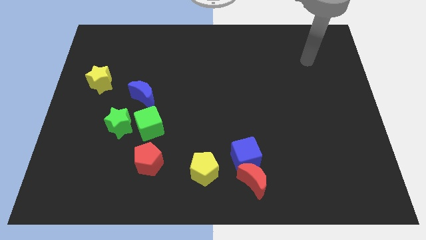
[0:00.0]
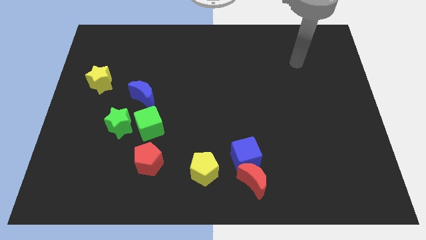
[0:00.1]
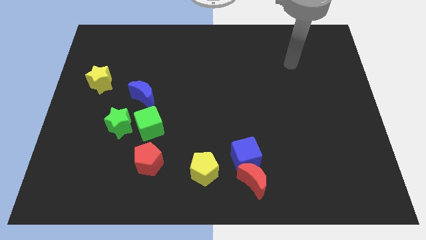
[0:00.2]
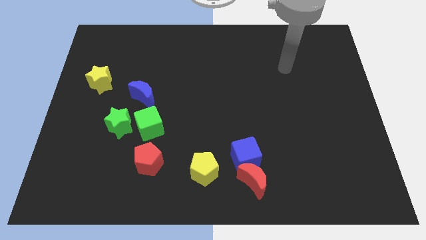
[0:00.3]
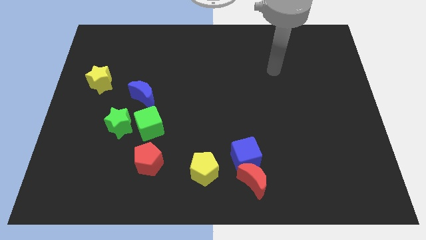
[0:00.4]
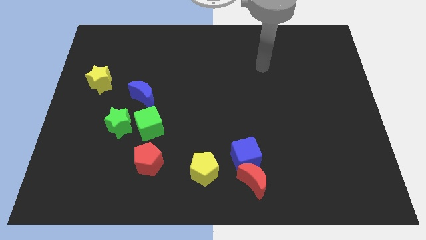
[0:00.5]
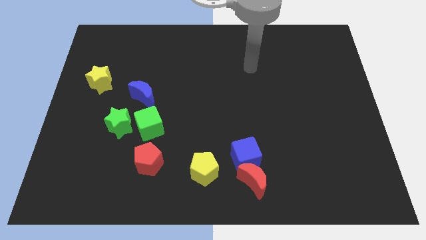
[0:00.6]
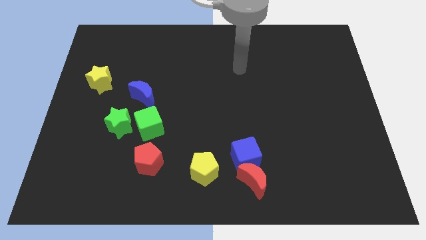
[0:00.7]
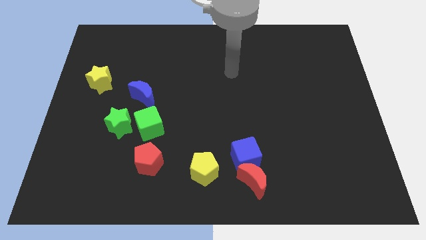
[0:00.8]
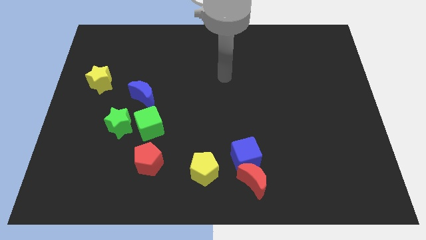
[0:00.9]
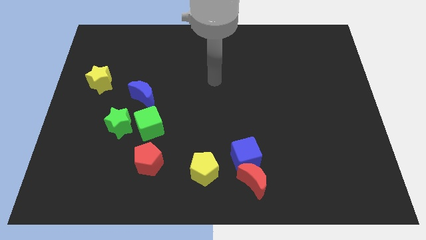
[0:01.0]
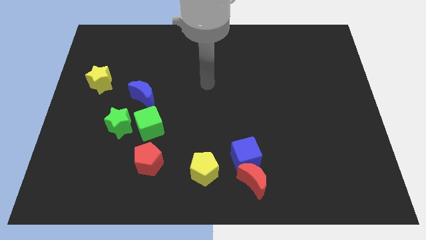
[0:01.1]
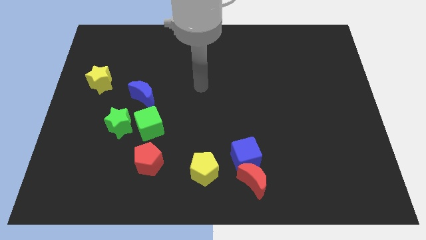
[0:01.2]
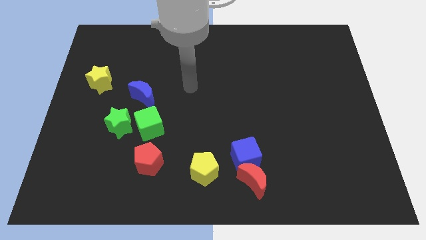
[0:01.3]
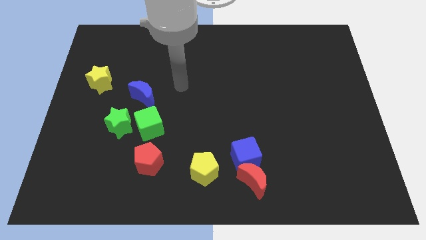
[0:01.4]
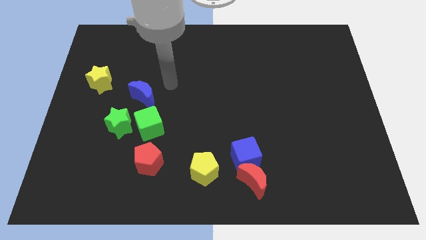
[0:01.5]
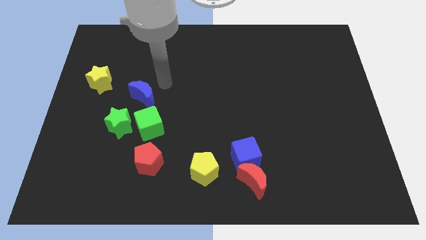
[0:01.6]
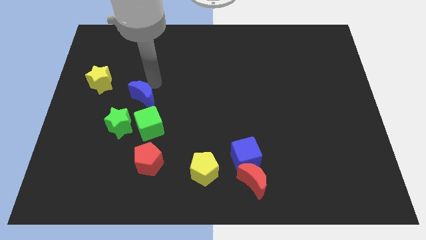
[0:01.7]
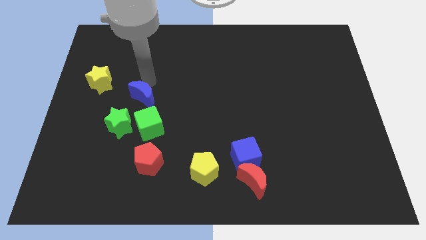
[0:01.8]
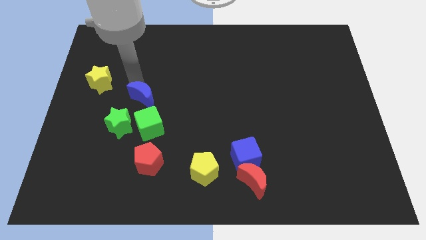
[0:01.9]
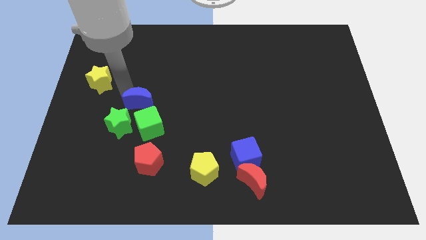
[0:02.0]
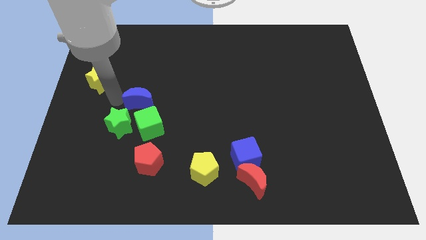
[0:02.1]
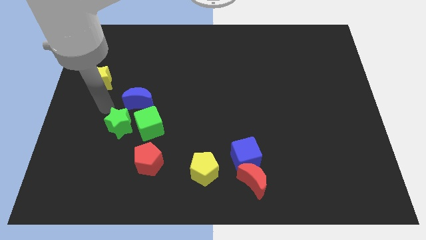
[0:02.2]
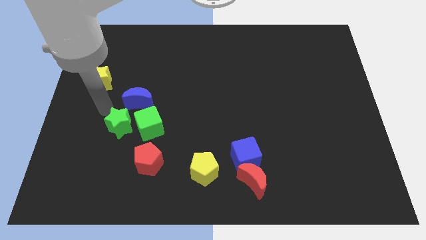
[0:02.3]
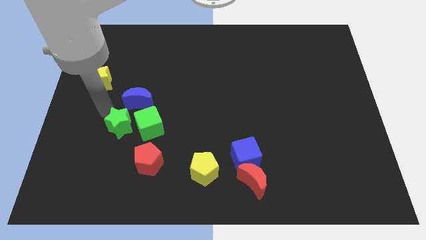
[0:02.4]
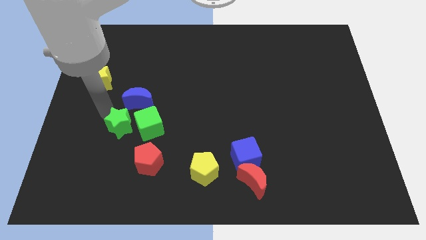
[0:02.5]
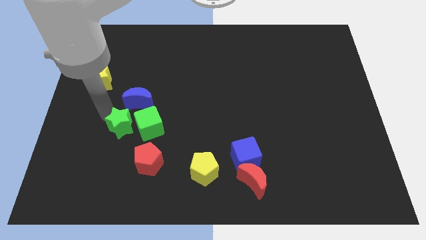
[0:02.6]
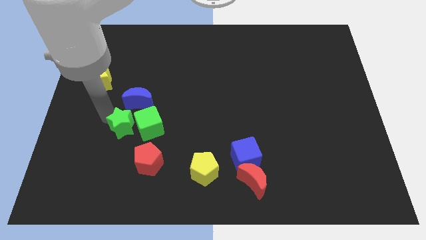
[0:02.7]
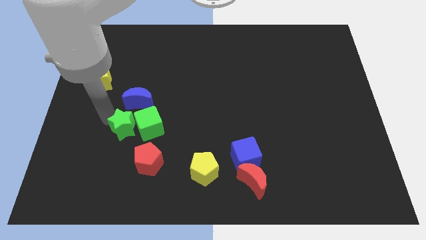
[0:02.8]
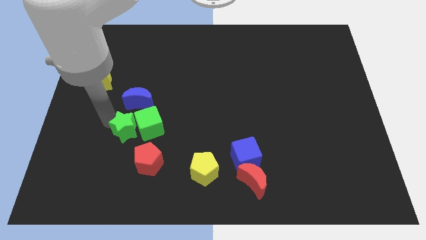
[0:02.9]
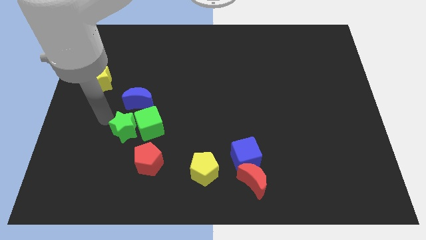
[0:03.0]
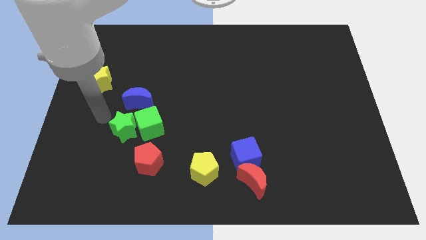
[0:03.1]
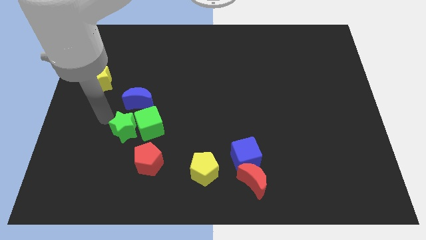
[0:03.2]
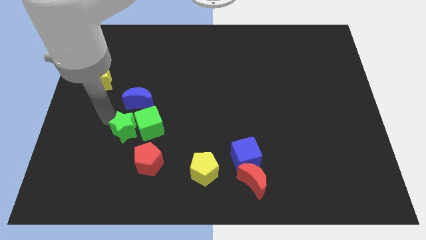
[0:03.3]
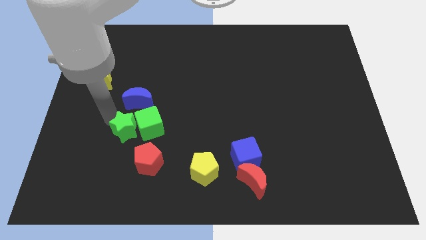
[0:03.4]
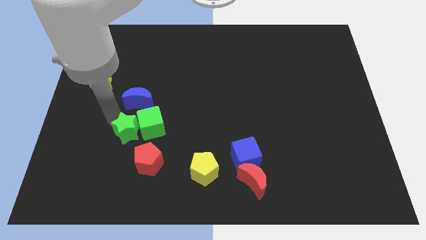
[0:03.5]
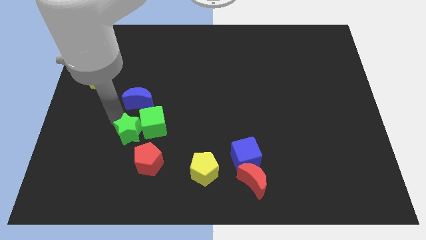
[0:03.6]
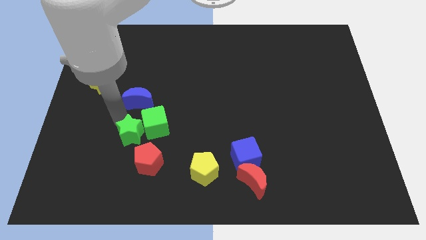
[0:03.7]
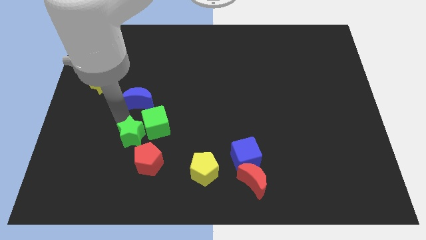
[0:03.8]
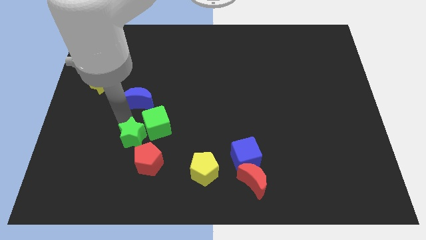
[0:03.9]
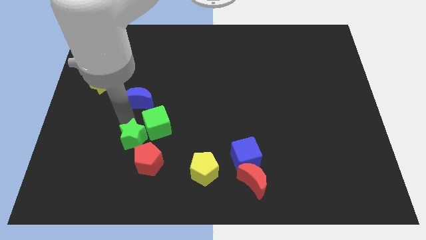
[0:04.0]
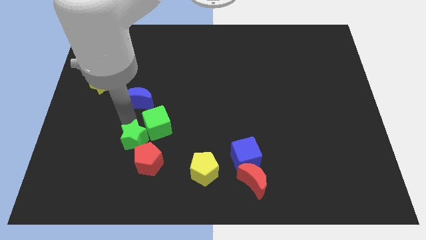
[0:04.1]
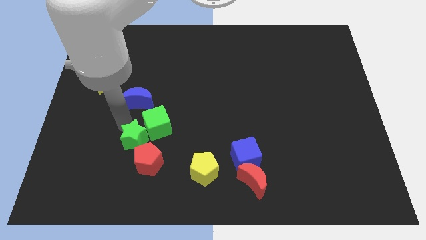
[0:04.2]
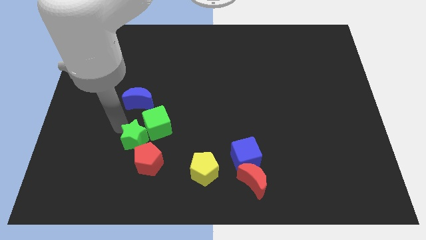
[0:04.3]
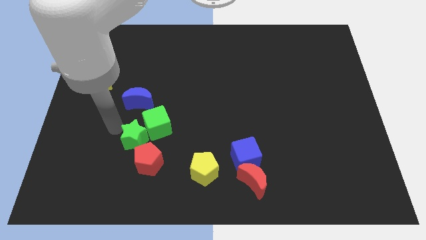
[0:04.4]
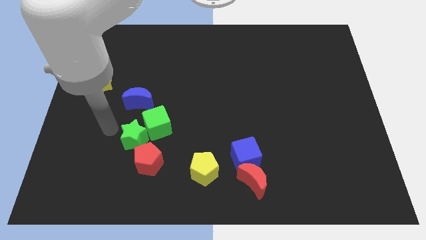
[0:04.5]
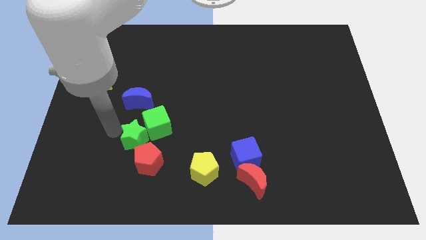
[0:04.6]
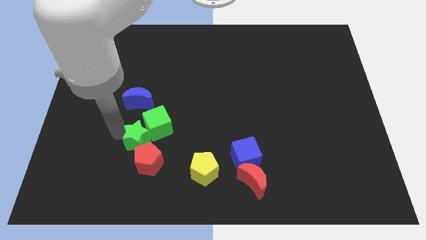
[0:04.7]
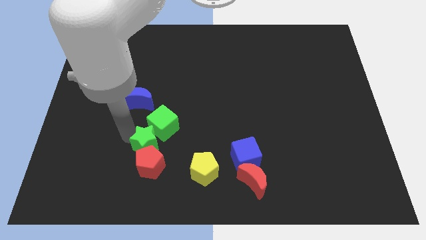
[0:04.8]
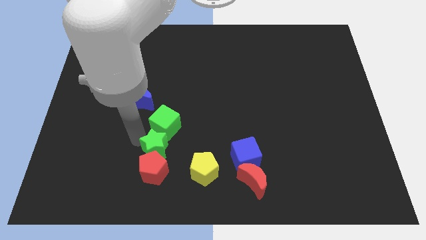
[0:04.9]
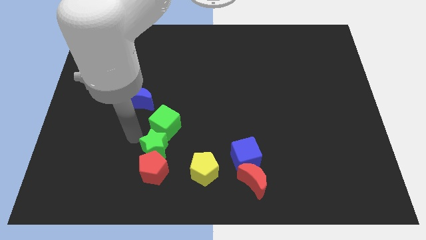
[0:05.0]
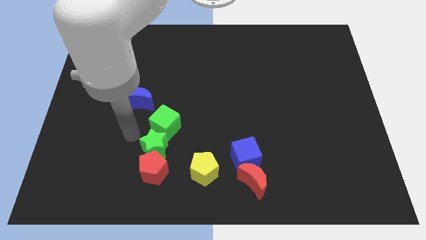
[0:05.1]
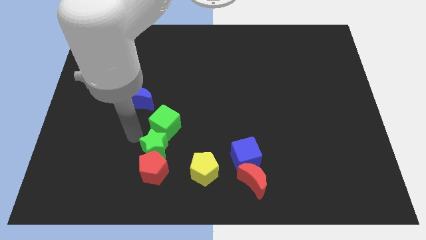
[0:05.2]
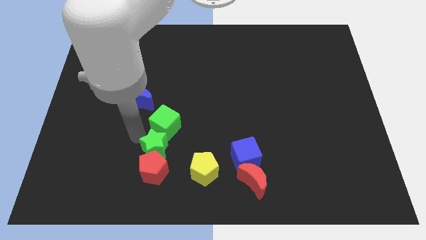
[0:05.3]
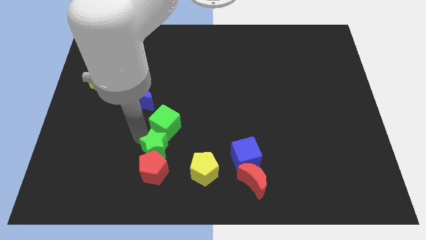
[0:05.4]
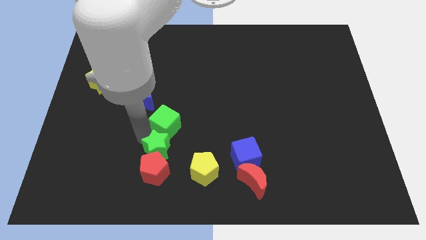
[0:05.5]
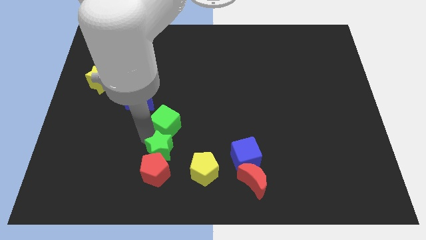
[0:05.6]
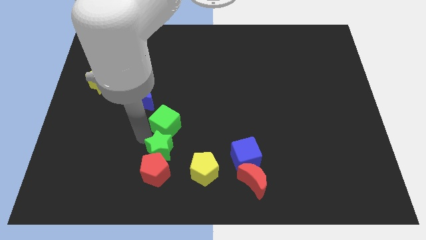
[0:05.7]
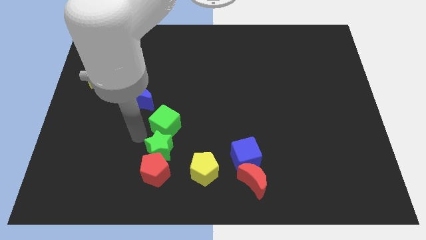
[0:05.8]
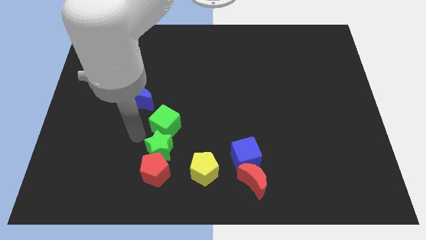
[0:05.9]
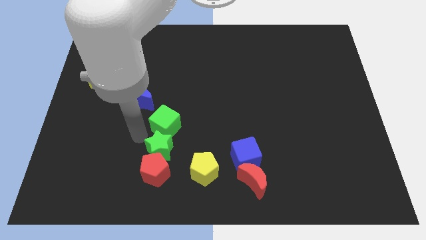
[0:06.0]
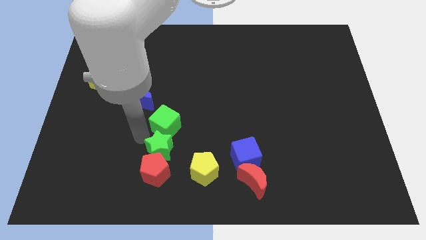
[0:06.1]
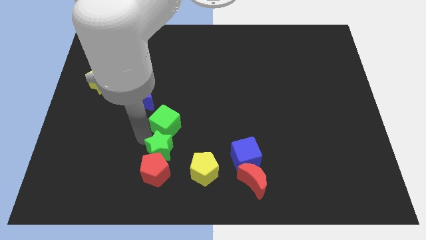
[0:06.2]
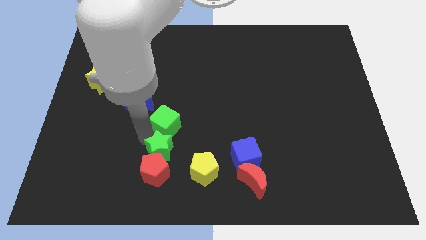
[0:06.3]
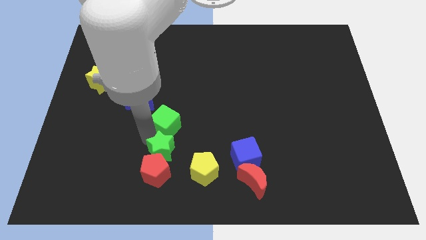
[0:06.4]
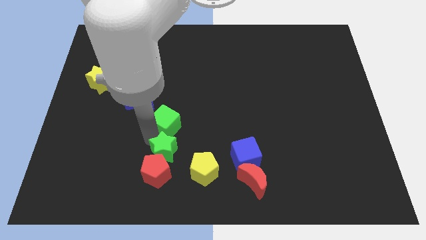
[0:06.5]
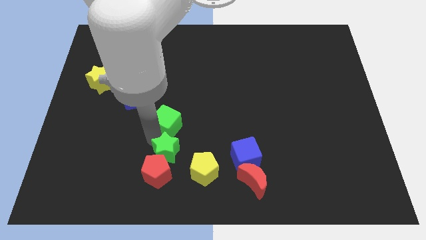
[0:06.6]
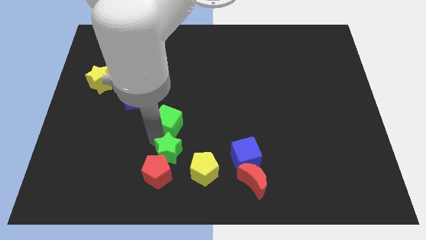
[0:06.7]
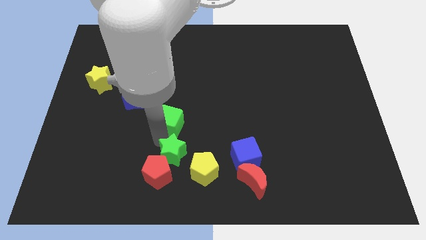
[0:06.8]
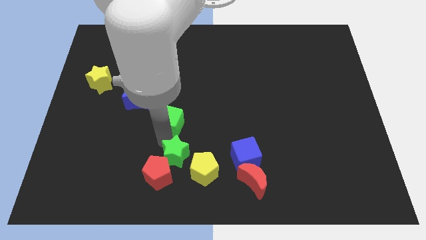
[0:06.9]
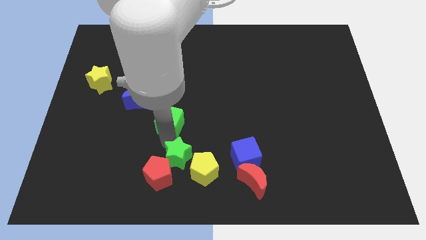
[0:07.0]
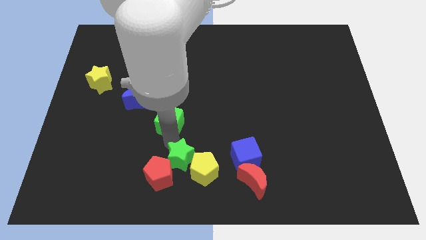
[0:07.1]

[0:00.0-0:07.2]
move the green star towards the yellow pentagon
